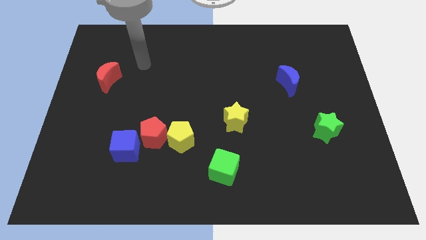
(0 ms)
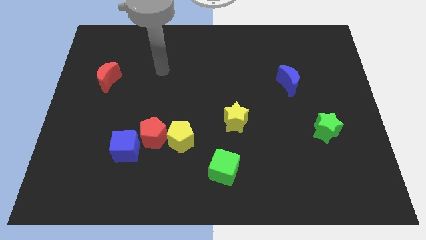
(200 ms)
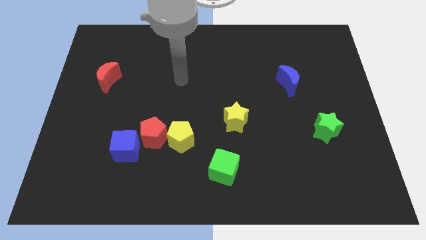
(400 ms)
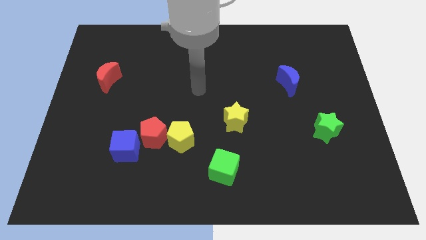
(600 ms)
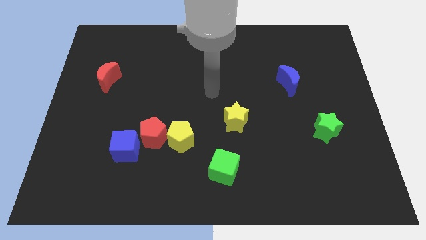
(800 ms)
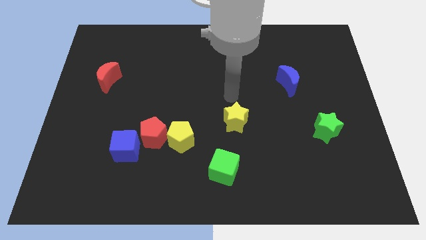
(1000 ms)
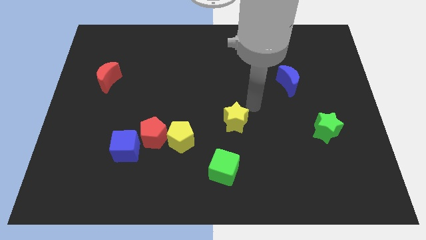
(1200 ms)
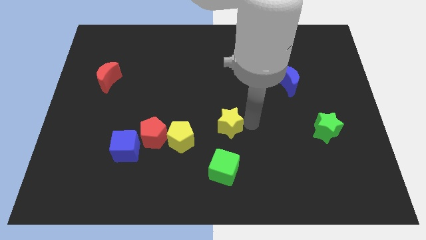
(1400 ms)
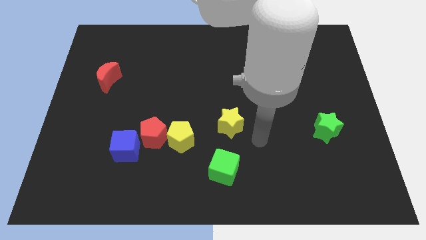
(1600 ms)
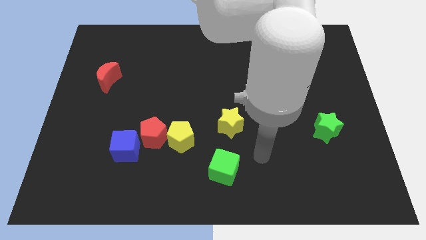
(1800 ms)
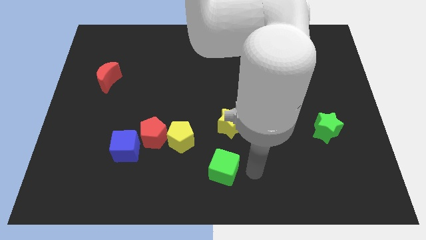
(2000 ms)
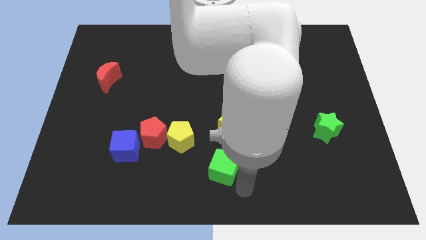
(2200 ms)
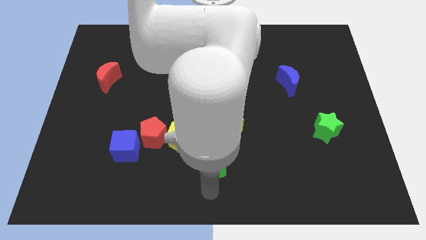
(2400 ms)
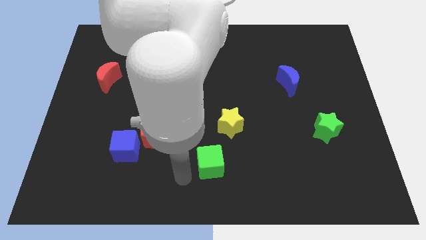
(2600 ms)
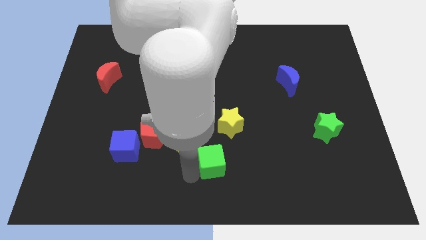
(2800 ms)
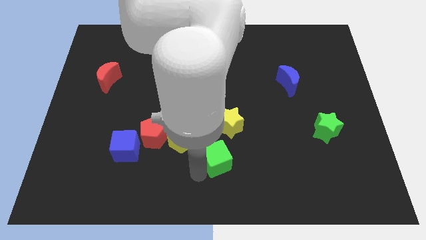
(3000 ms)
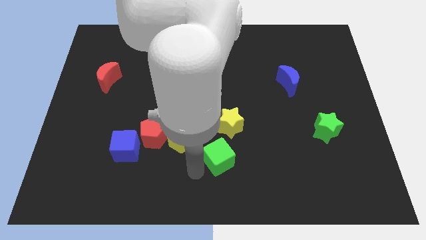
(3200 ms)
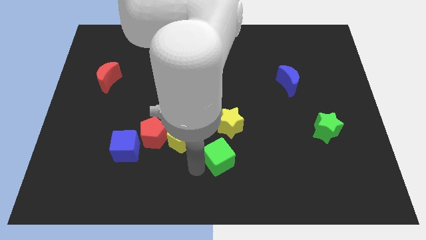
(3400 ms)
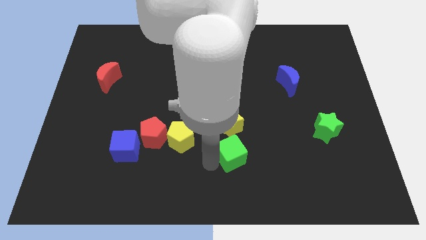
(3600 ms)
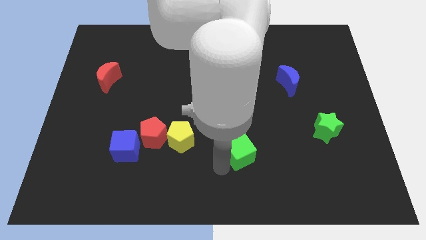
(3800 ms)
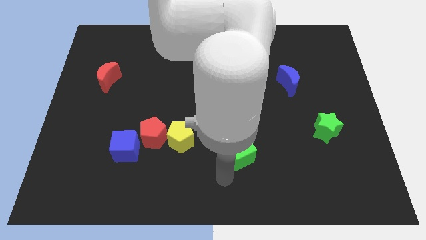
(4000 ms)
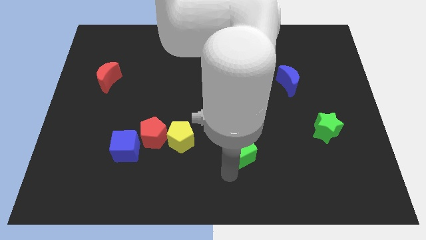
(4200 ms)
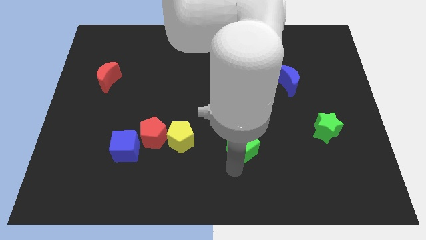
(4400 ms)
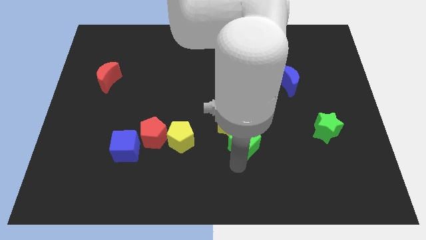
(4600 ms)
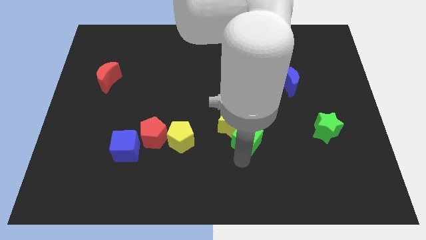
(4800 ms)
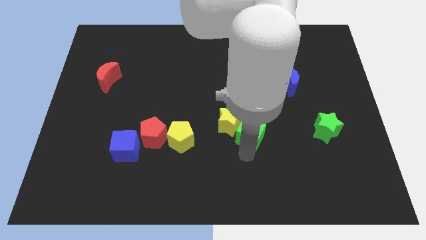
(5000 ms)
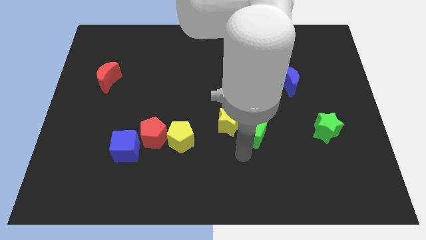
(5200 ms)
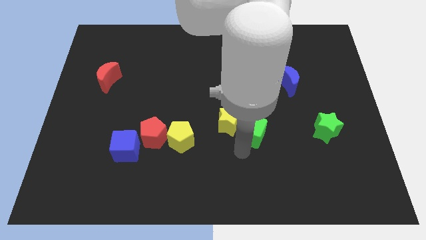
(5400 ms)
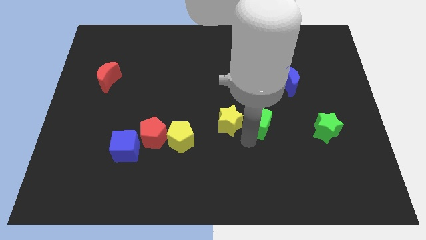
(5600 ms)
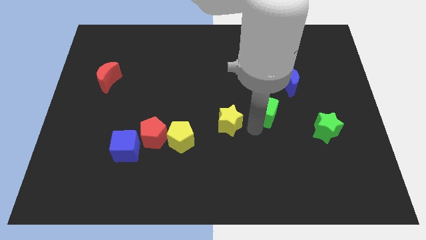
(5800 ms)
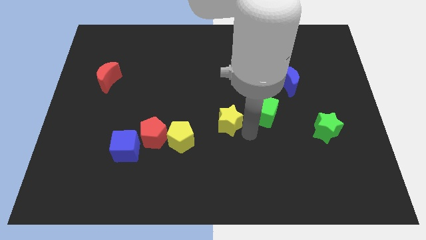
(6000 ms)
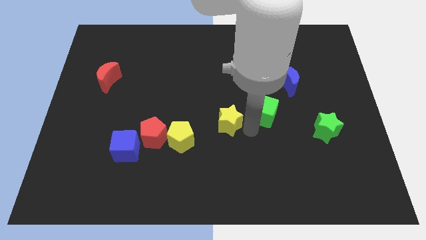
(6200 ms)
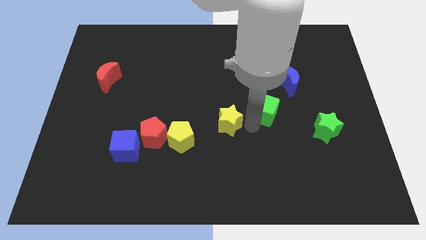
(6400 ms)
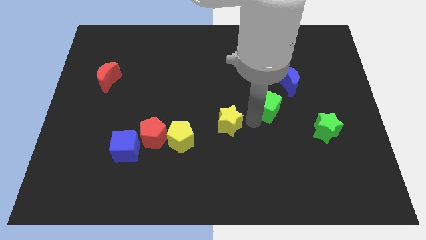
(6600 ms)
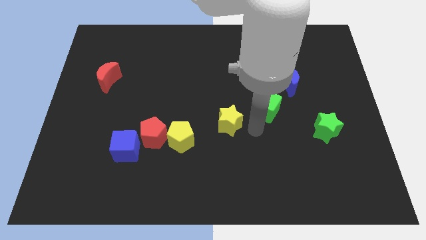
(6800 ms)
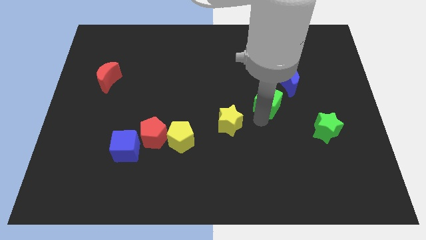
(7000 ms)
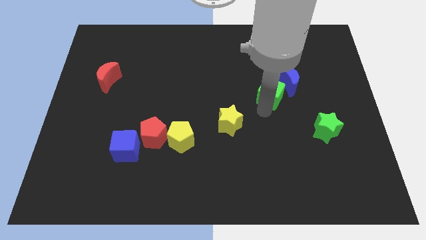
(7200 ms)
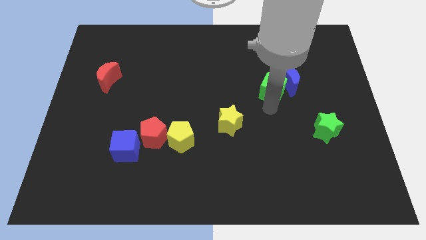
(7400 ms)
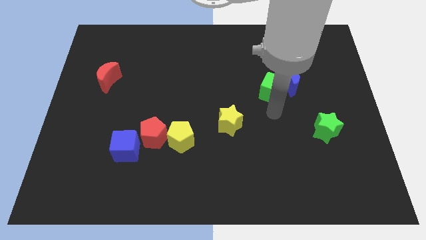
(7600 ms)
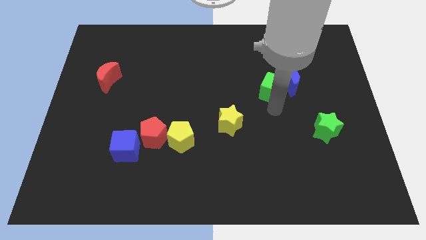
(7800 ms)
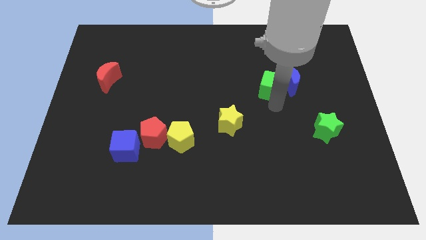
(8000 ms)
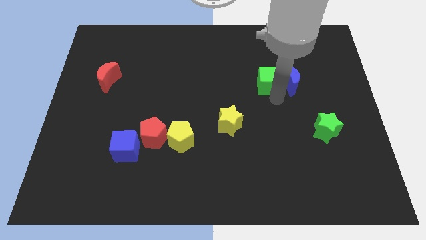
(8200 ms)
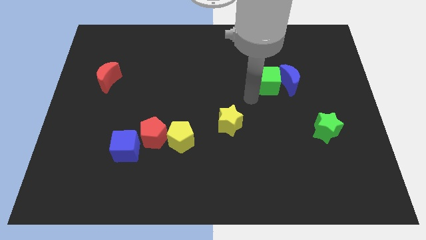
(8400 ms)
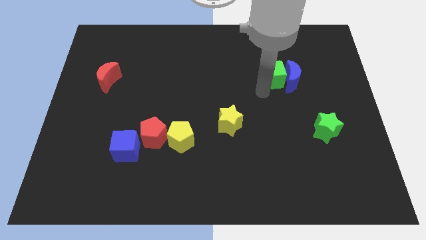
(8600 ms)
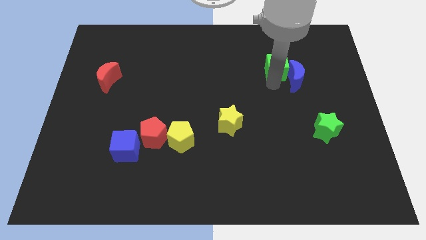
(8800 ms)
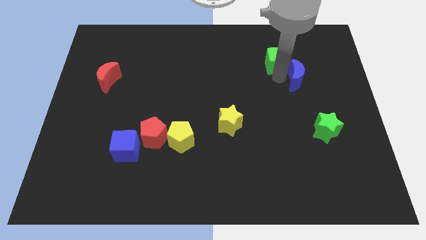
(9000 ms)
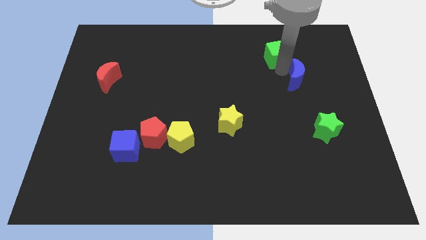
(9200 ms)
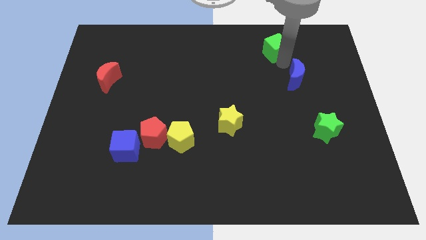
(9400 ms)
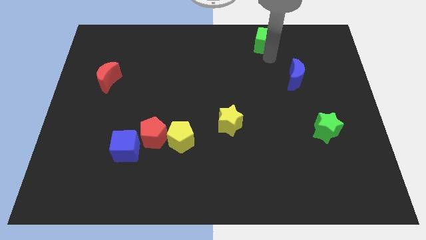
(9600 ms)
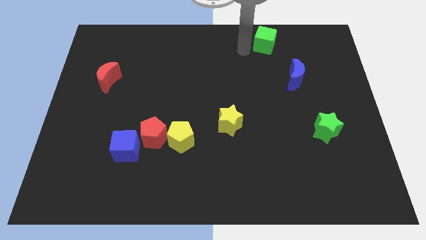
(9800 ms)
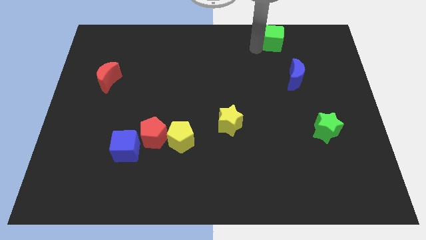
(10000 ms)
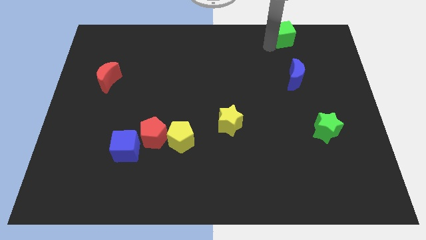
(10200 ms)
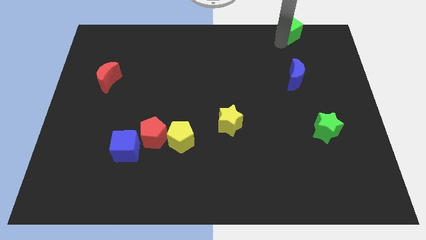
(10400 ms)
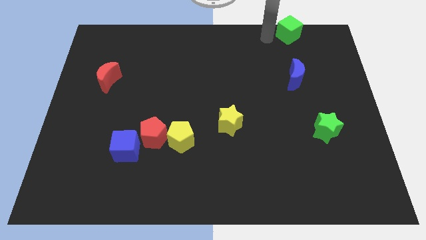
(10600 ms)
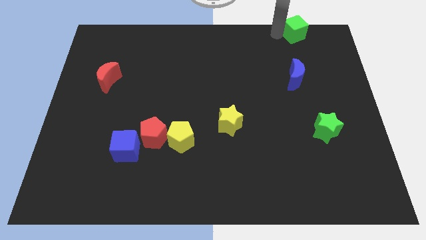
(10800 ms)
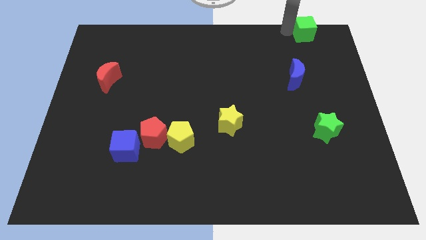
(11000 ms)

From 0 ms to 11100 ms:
push the green cube to the top right

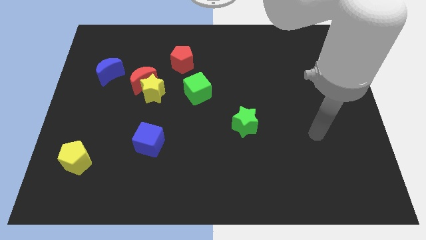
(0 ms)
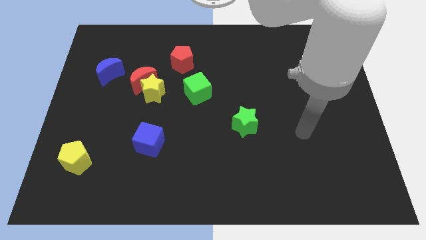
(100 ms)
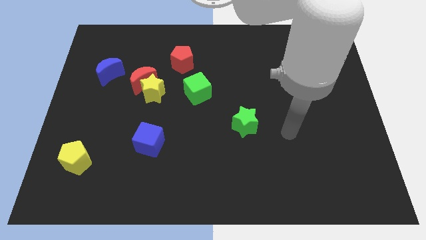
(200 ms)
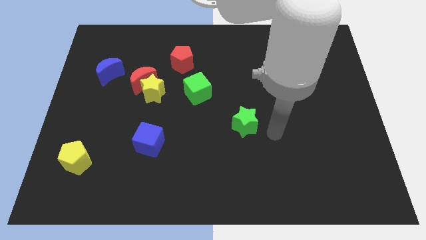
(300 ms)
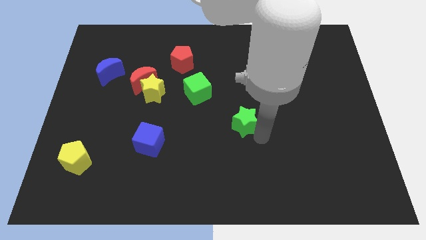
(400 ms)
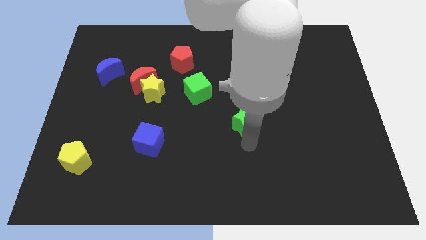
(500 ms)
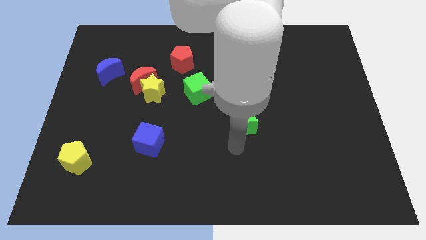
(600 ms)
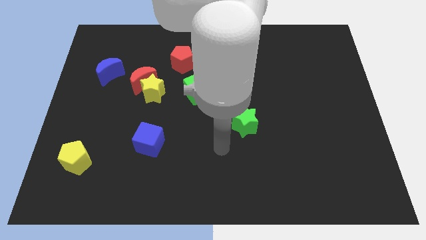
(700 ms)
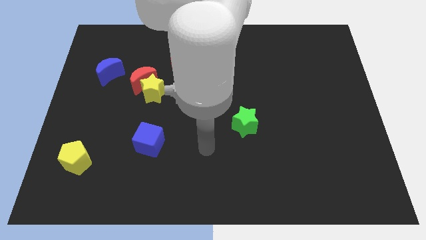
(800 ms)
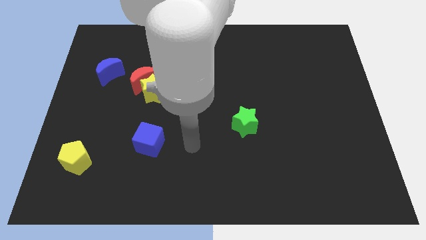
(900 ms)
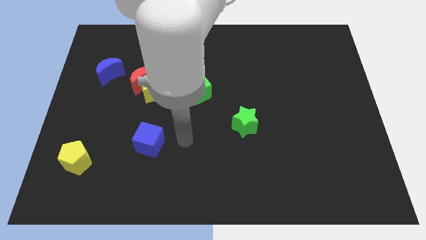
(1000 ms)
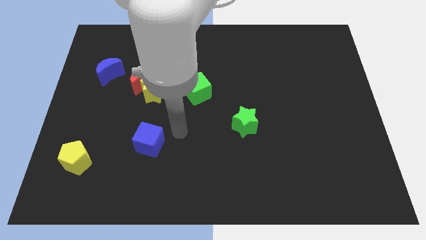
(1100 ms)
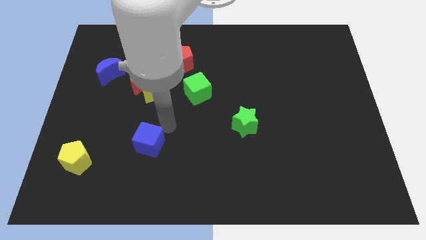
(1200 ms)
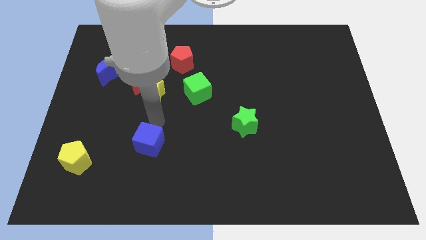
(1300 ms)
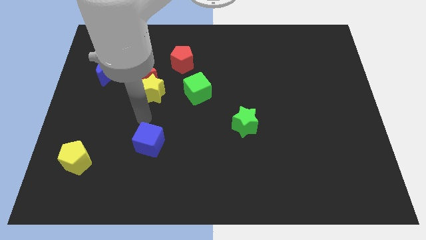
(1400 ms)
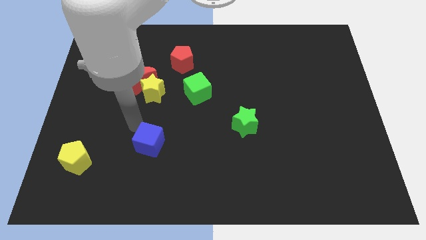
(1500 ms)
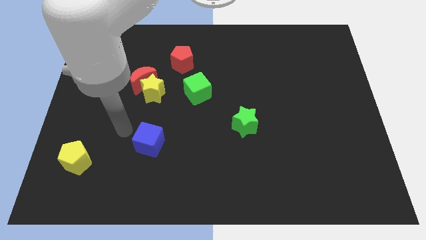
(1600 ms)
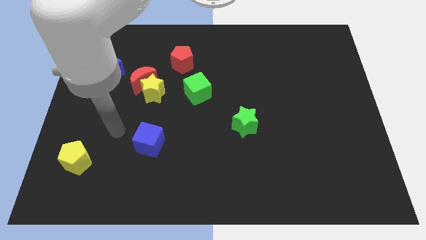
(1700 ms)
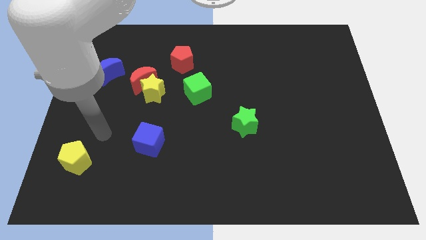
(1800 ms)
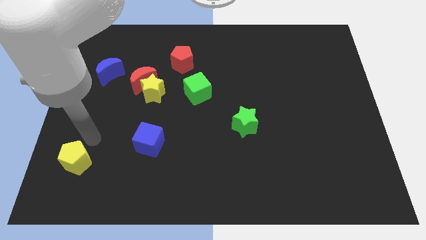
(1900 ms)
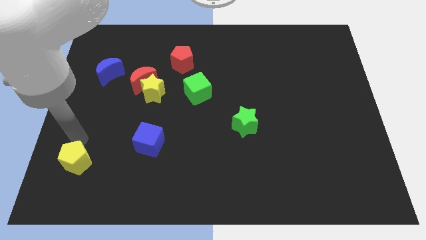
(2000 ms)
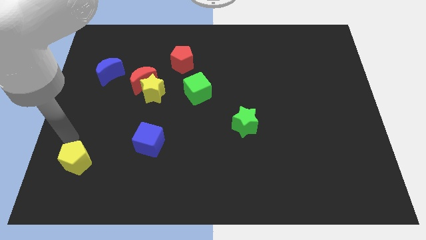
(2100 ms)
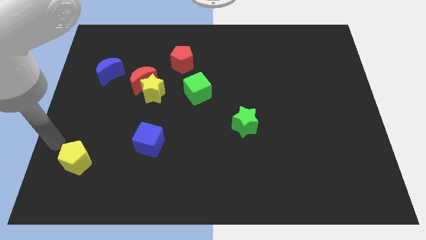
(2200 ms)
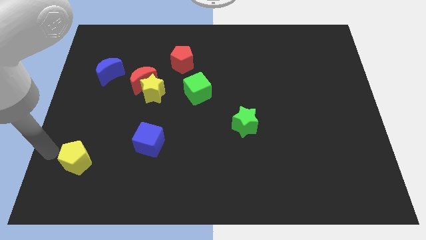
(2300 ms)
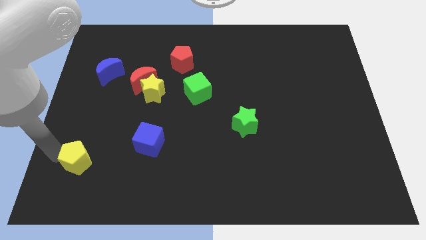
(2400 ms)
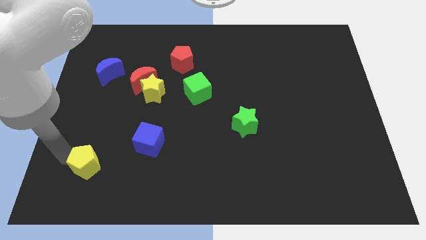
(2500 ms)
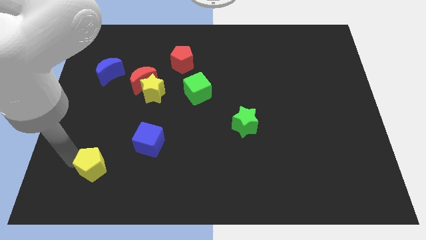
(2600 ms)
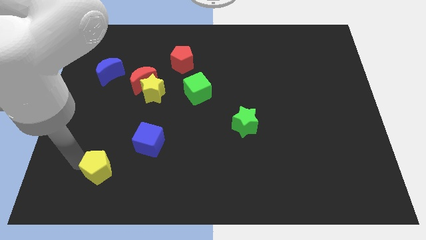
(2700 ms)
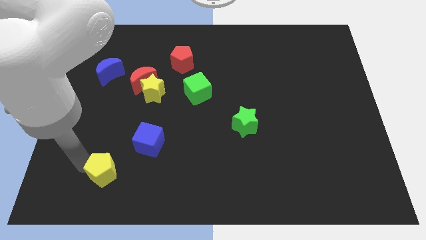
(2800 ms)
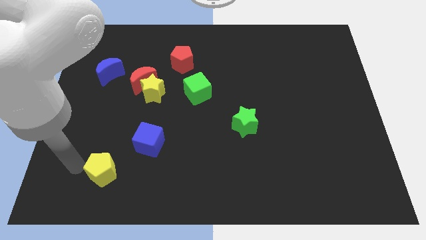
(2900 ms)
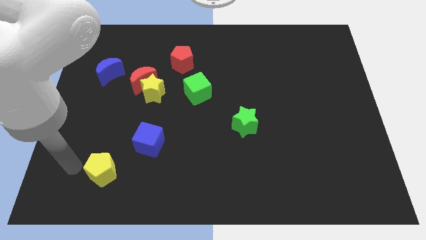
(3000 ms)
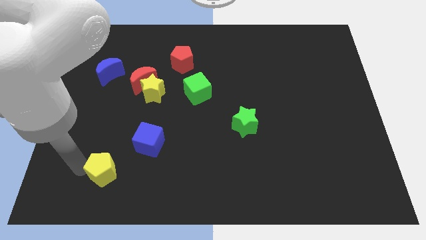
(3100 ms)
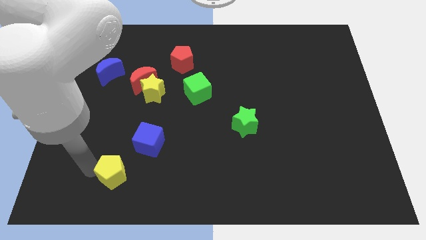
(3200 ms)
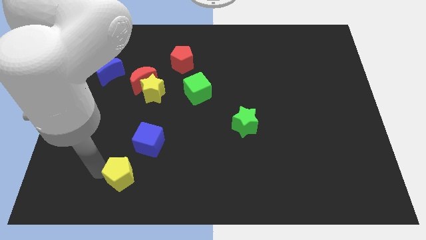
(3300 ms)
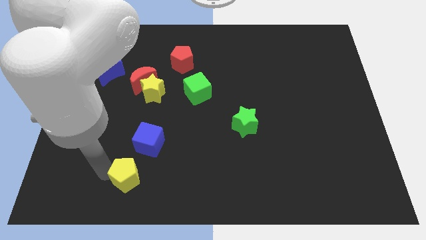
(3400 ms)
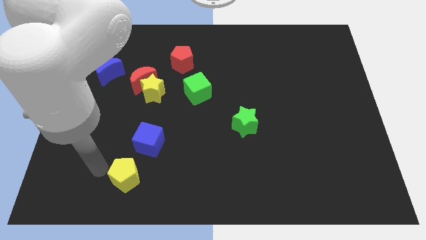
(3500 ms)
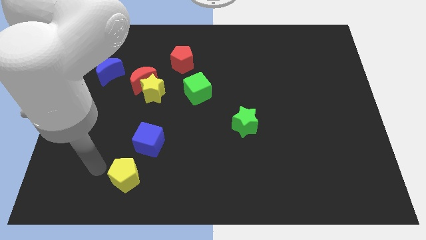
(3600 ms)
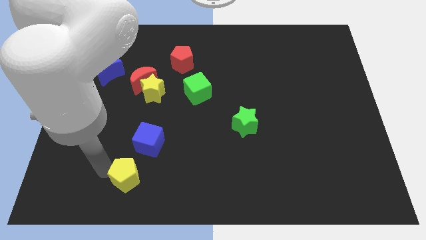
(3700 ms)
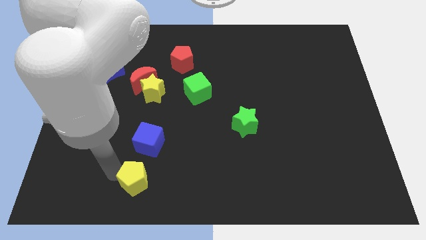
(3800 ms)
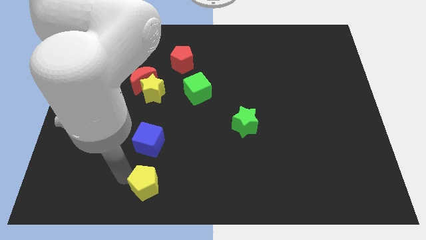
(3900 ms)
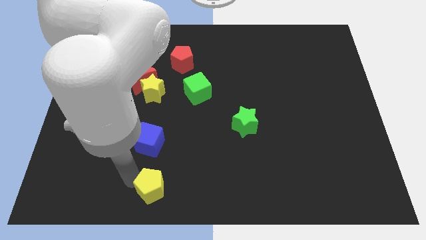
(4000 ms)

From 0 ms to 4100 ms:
move the yellow pentagon to the bottom side
